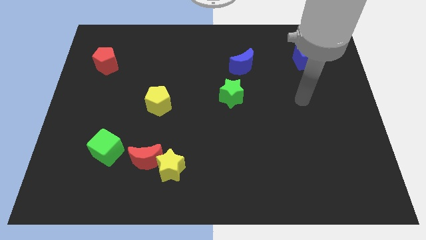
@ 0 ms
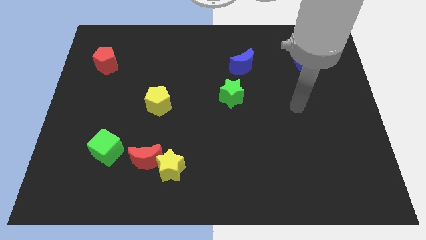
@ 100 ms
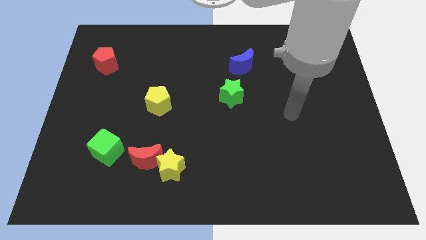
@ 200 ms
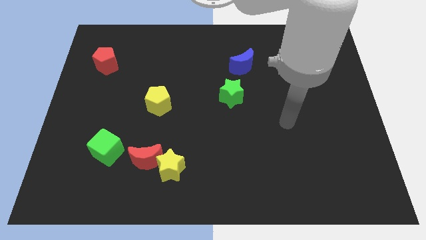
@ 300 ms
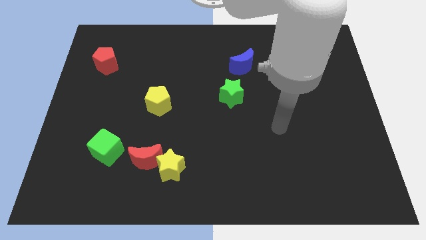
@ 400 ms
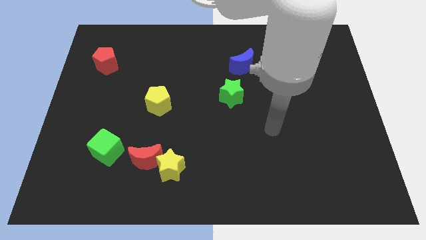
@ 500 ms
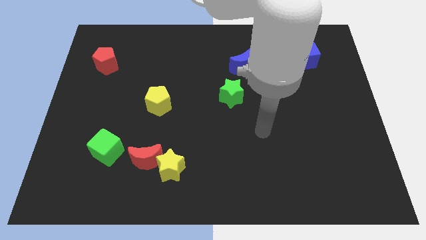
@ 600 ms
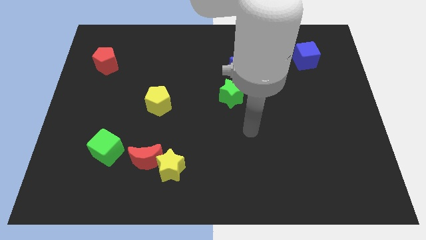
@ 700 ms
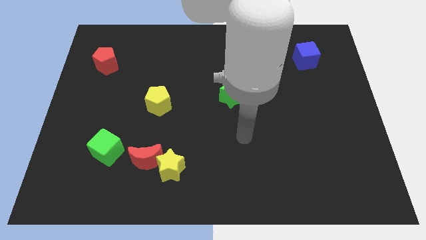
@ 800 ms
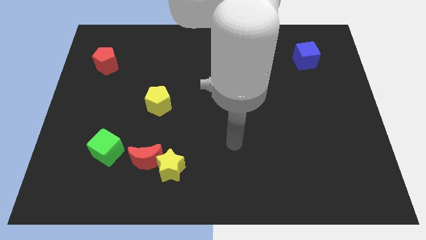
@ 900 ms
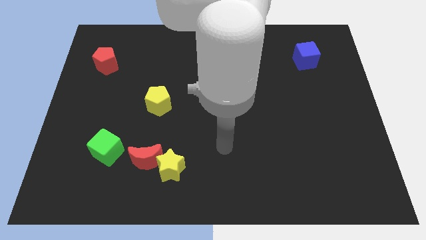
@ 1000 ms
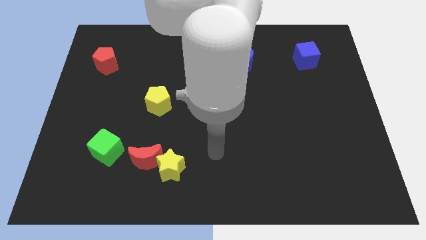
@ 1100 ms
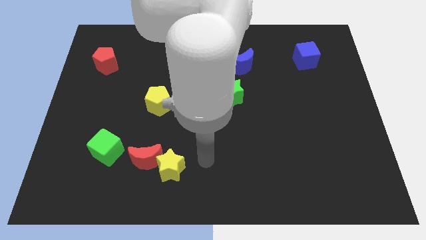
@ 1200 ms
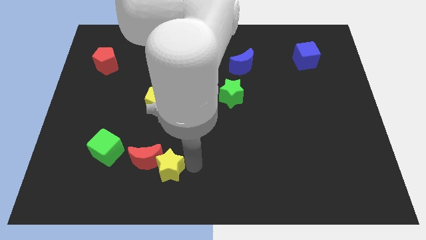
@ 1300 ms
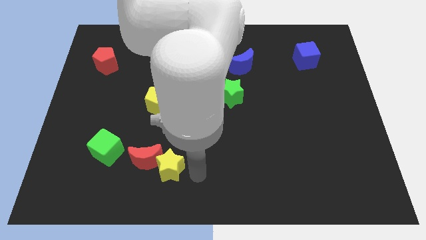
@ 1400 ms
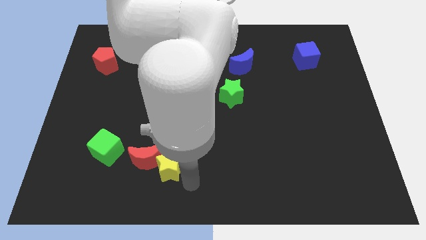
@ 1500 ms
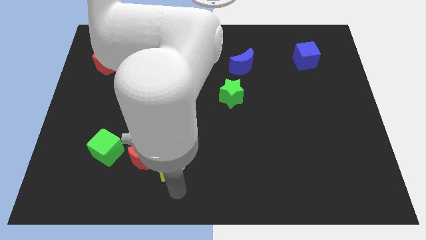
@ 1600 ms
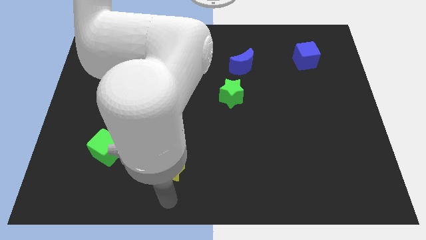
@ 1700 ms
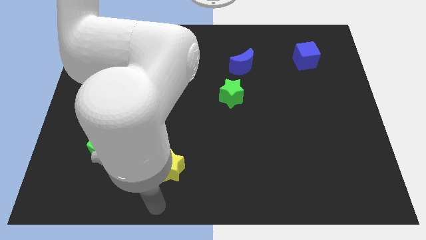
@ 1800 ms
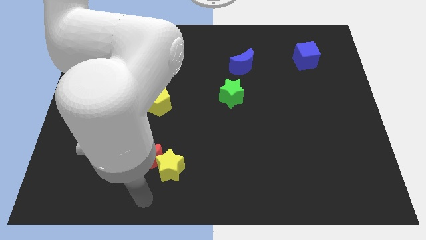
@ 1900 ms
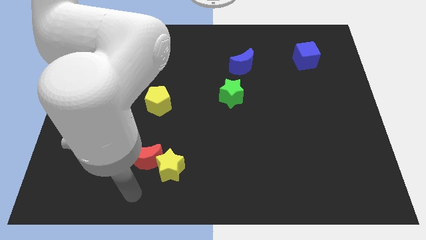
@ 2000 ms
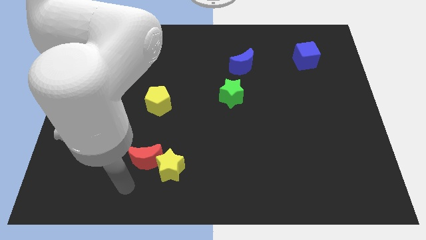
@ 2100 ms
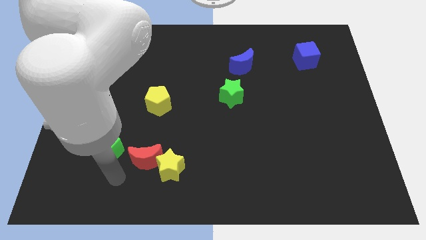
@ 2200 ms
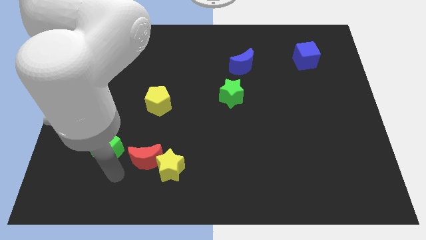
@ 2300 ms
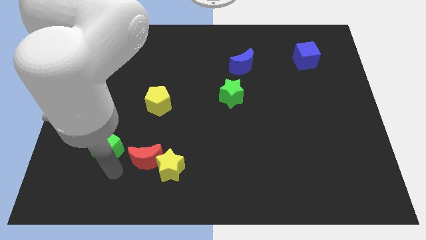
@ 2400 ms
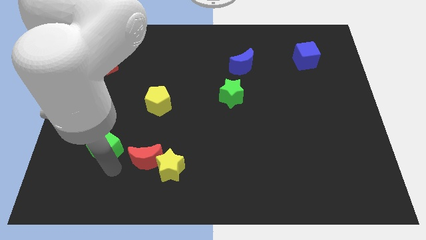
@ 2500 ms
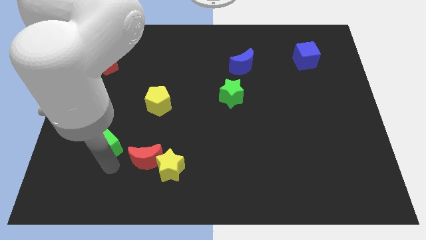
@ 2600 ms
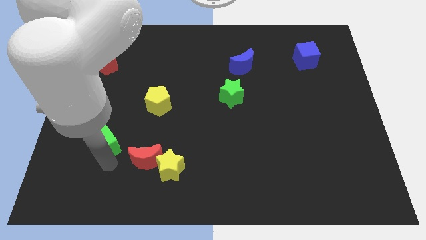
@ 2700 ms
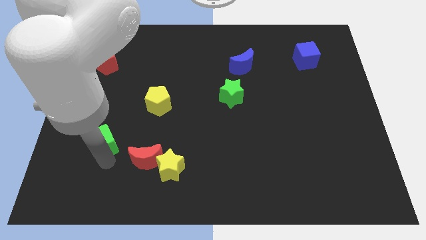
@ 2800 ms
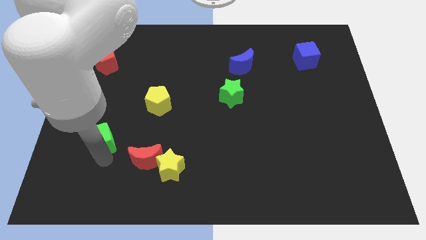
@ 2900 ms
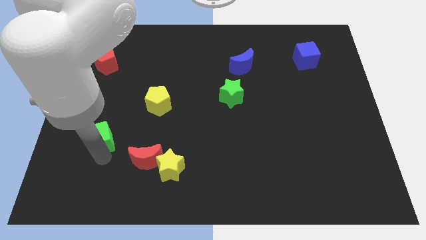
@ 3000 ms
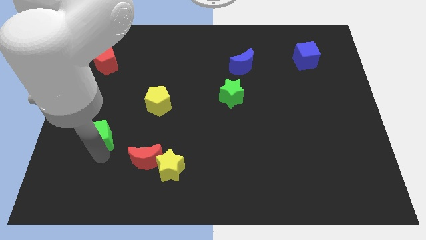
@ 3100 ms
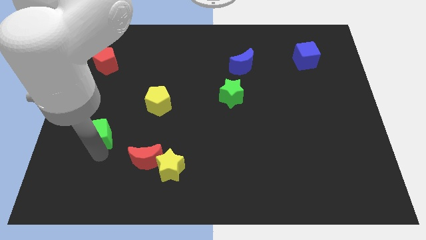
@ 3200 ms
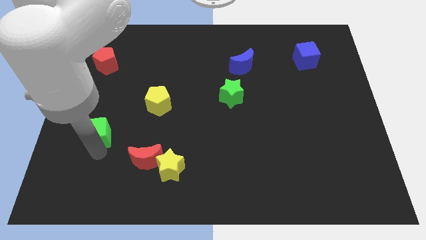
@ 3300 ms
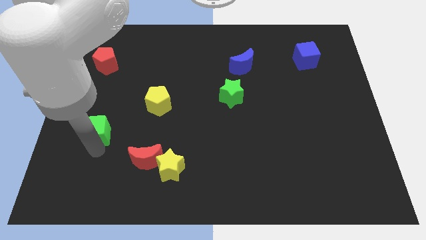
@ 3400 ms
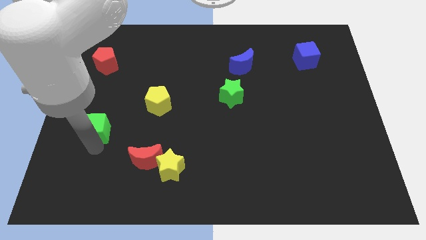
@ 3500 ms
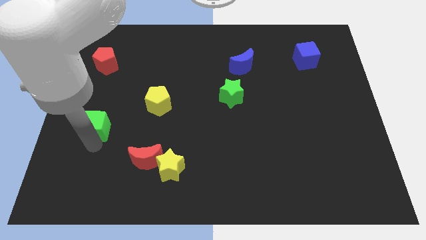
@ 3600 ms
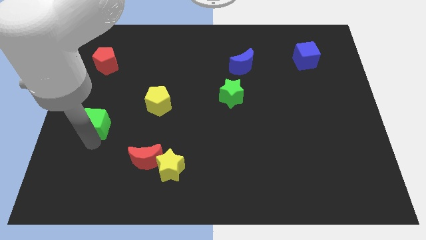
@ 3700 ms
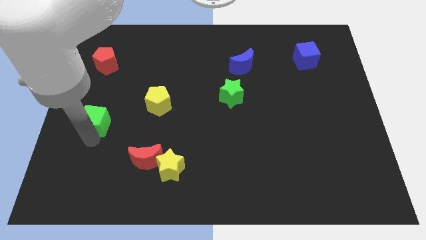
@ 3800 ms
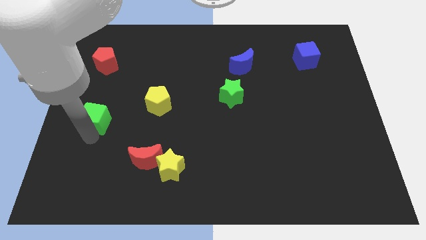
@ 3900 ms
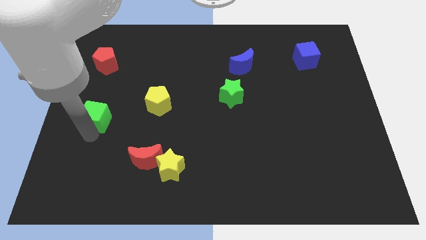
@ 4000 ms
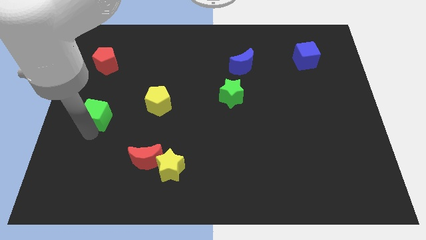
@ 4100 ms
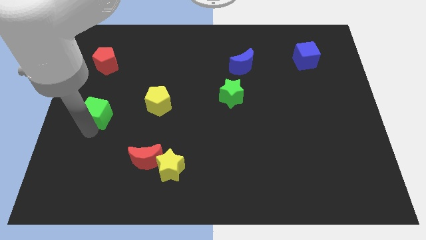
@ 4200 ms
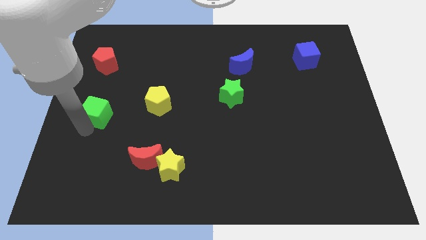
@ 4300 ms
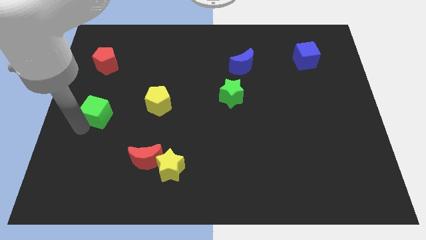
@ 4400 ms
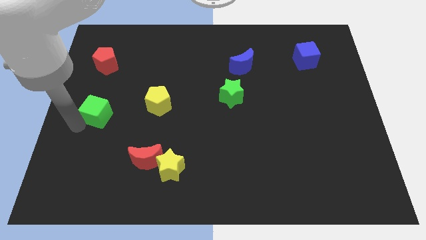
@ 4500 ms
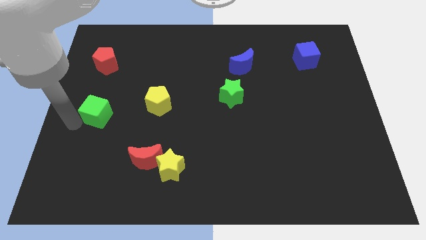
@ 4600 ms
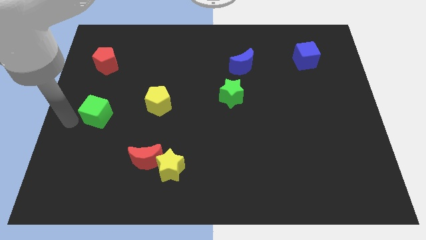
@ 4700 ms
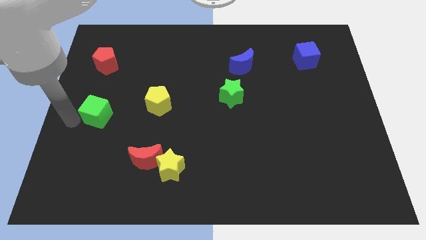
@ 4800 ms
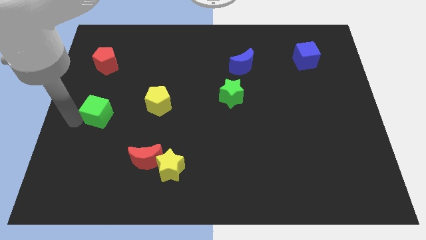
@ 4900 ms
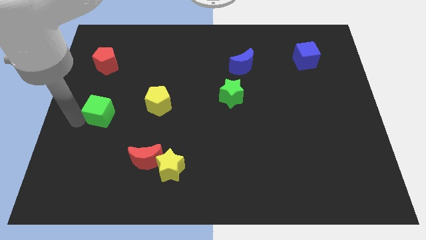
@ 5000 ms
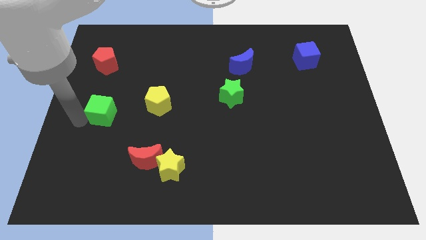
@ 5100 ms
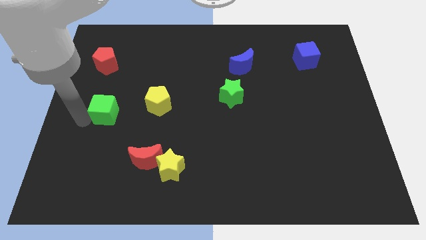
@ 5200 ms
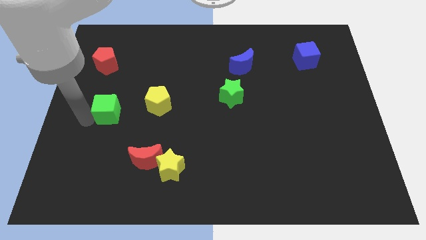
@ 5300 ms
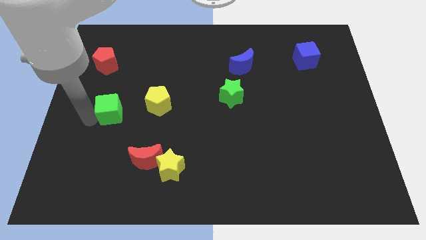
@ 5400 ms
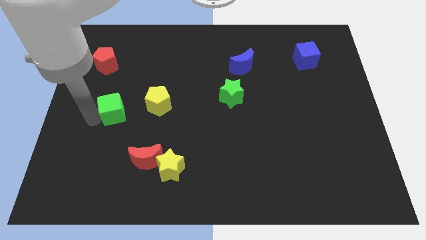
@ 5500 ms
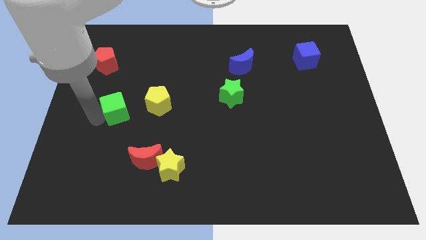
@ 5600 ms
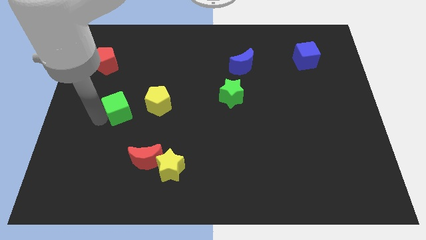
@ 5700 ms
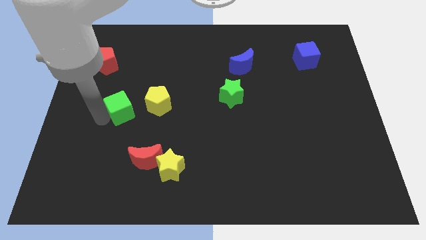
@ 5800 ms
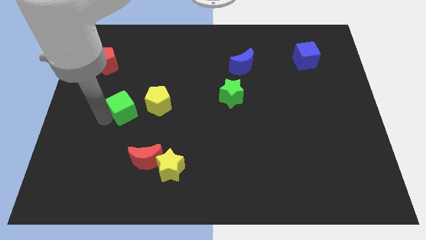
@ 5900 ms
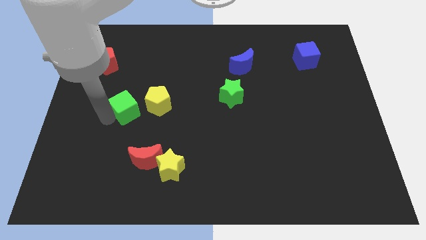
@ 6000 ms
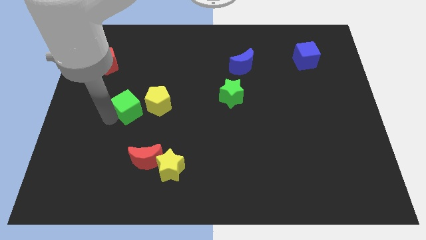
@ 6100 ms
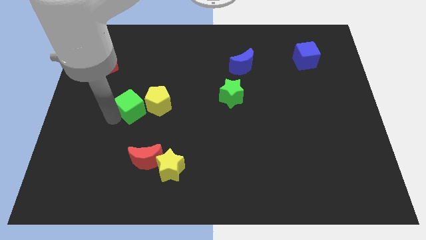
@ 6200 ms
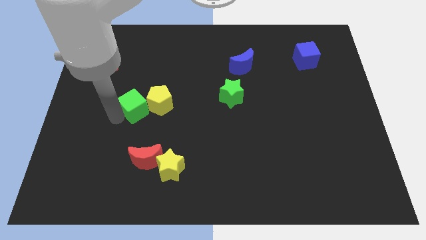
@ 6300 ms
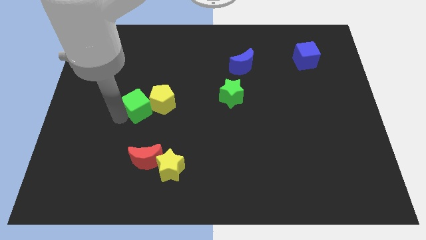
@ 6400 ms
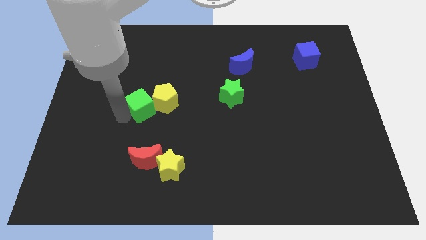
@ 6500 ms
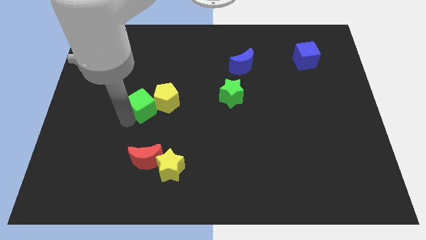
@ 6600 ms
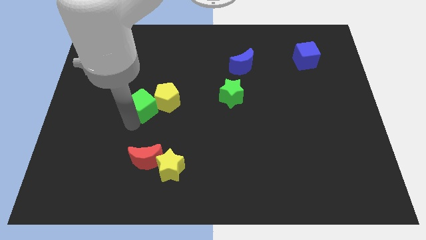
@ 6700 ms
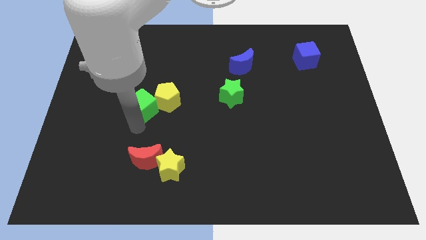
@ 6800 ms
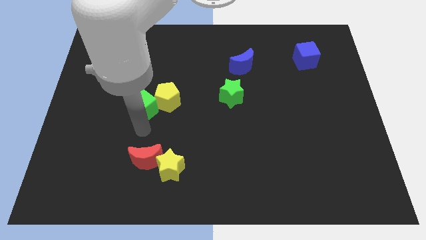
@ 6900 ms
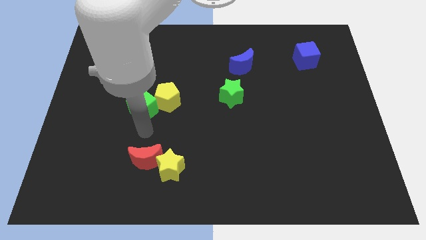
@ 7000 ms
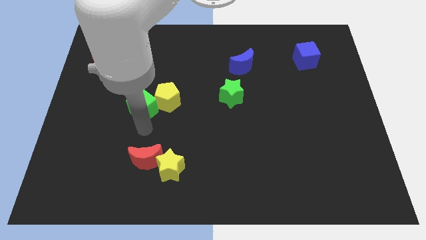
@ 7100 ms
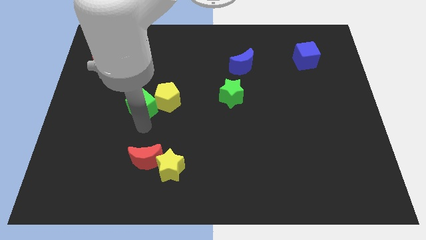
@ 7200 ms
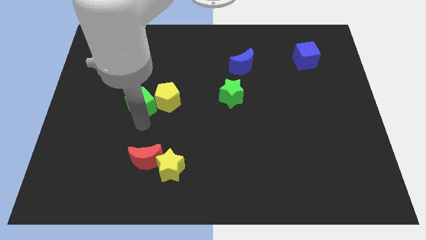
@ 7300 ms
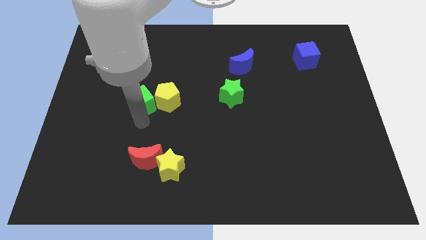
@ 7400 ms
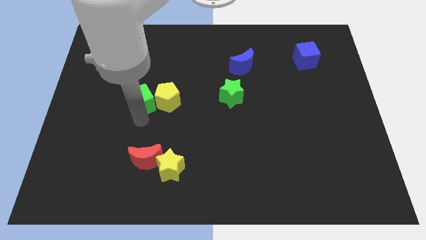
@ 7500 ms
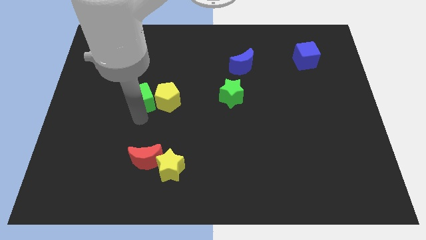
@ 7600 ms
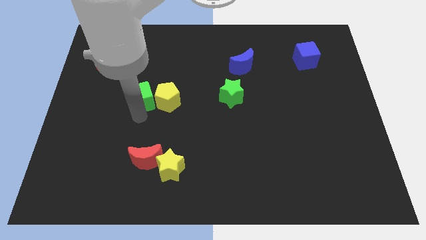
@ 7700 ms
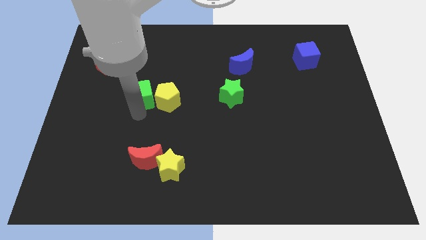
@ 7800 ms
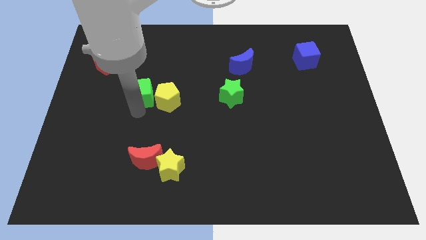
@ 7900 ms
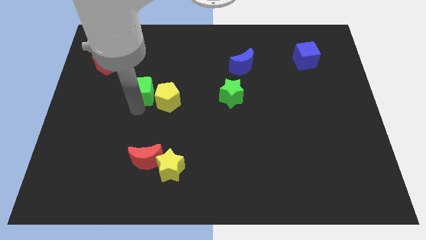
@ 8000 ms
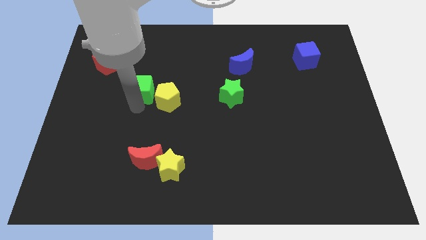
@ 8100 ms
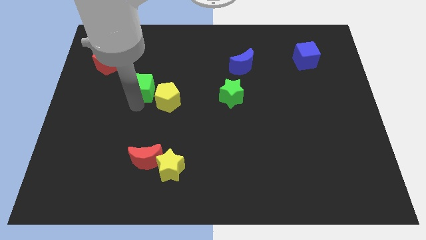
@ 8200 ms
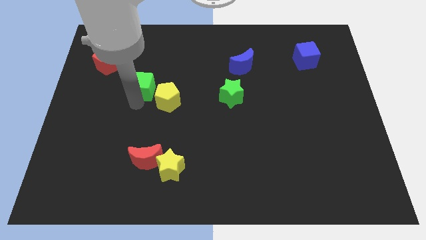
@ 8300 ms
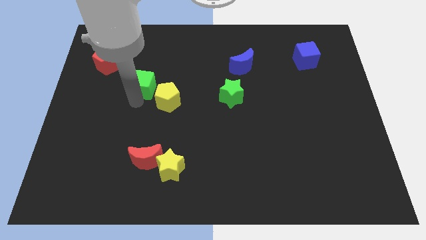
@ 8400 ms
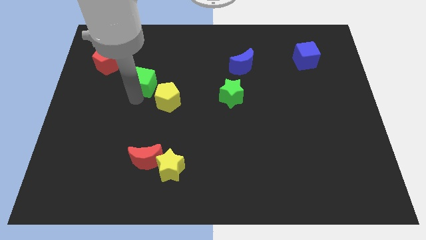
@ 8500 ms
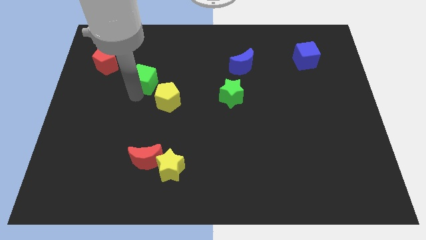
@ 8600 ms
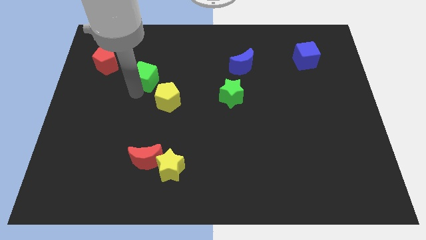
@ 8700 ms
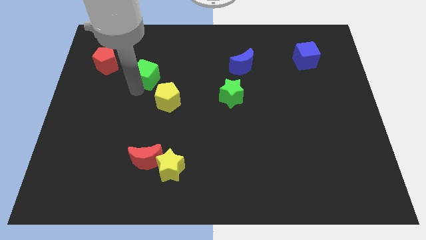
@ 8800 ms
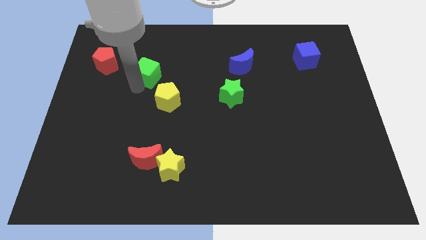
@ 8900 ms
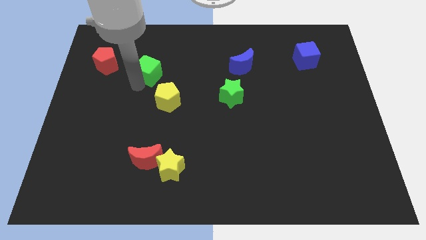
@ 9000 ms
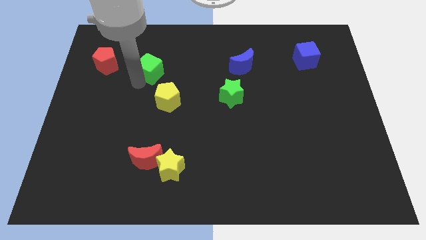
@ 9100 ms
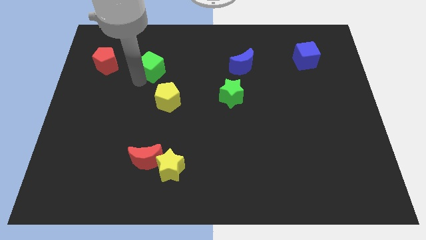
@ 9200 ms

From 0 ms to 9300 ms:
put the green cube to the top side of the yellow pentagon
